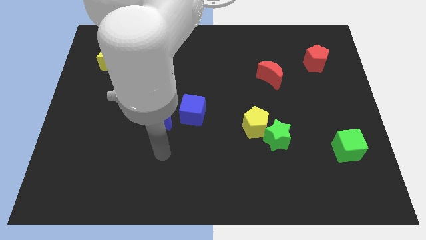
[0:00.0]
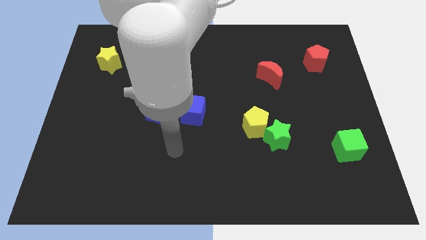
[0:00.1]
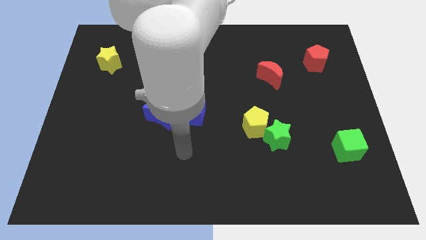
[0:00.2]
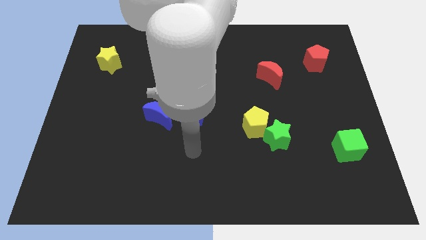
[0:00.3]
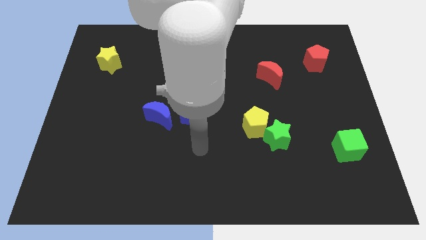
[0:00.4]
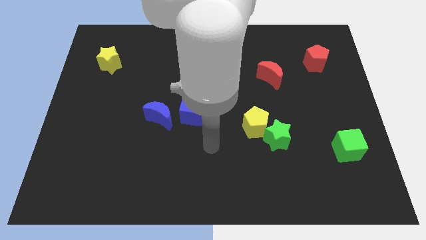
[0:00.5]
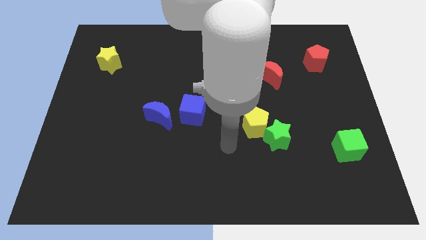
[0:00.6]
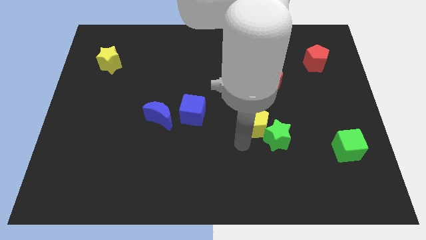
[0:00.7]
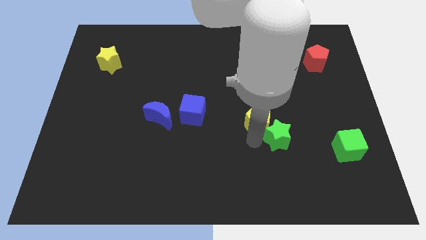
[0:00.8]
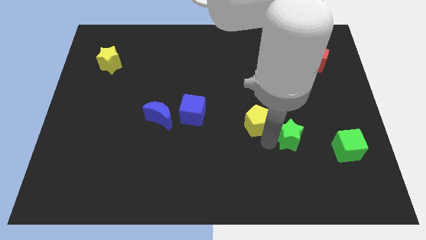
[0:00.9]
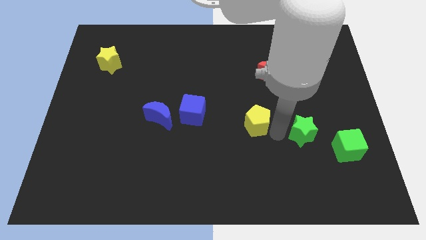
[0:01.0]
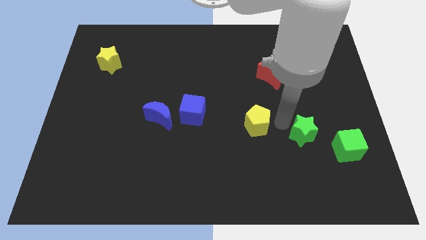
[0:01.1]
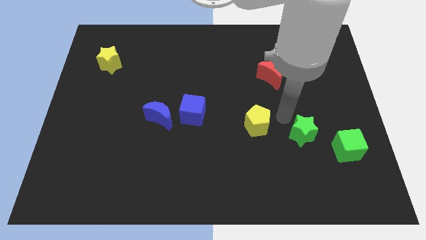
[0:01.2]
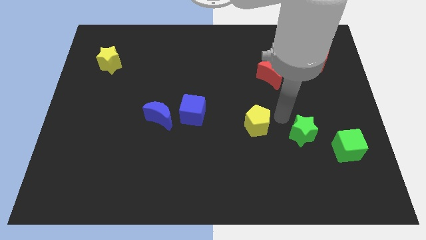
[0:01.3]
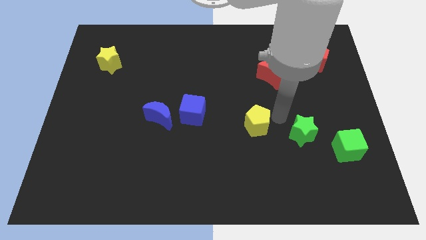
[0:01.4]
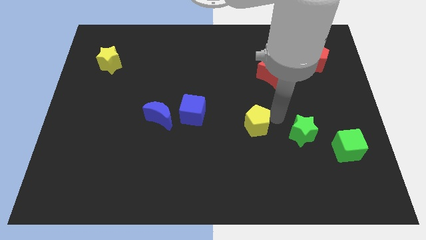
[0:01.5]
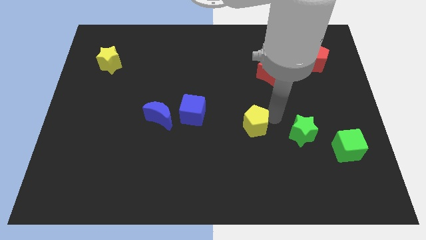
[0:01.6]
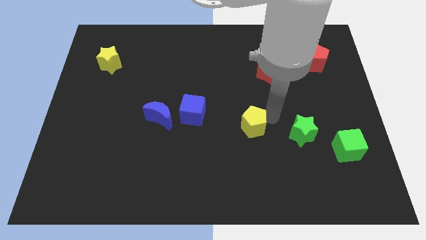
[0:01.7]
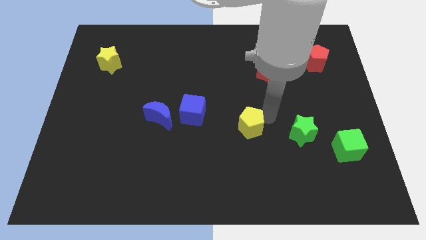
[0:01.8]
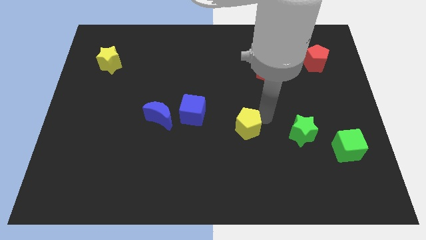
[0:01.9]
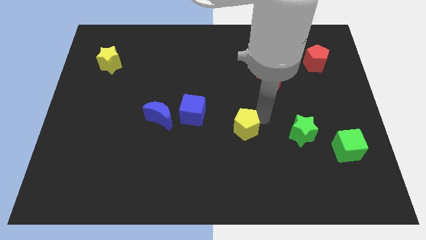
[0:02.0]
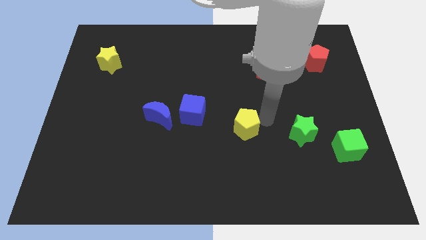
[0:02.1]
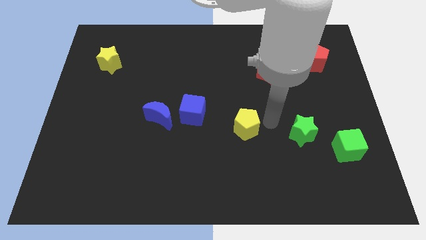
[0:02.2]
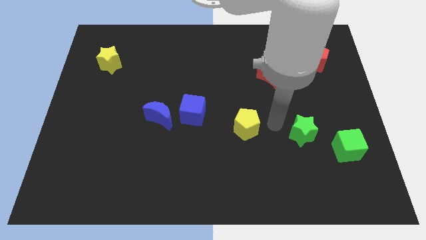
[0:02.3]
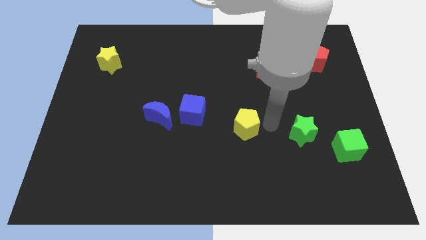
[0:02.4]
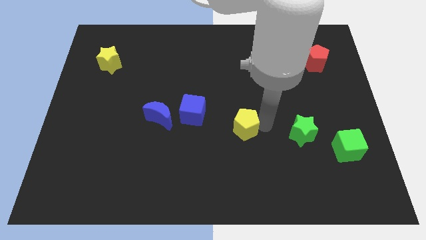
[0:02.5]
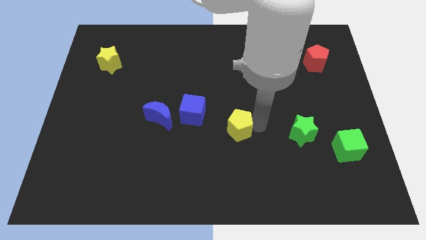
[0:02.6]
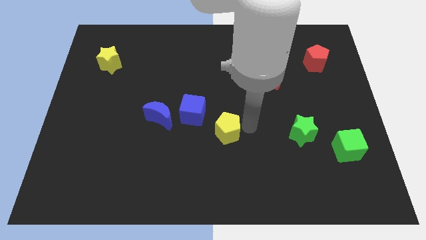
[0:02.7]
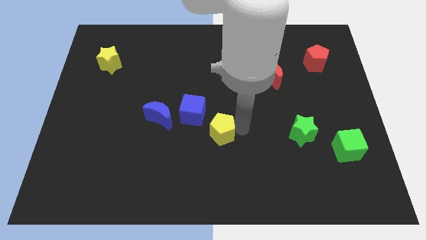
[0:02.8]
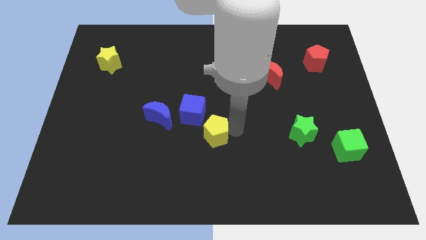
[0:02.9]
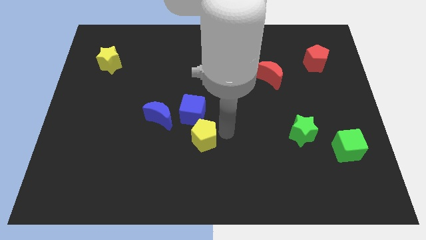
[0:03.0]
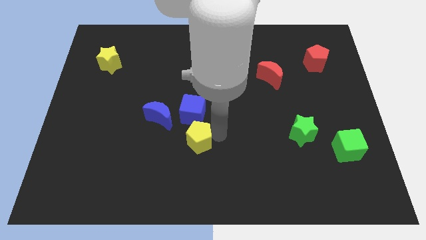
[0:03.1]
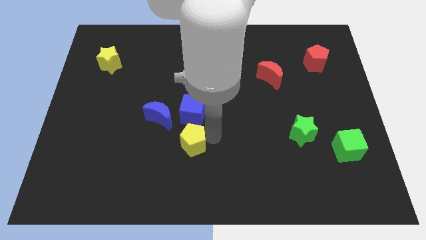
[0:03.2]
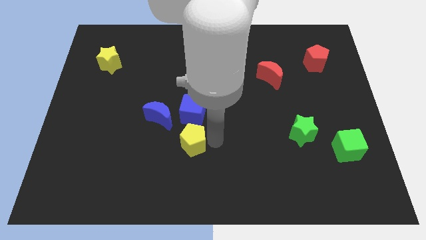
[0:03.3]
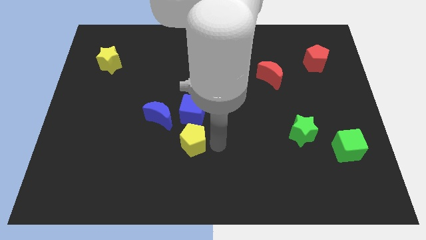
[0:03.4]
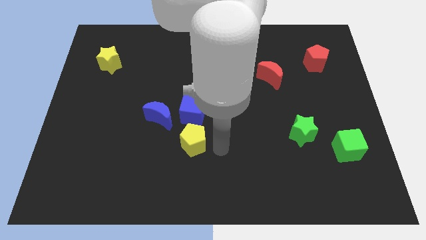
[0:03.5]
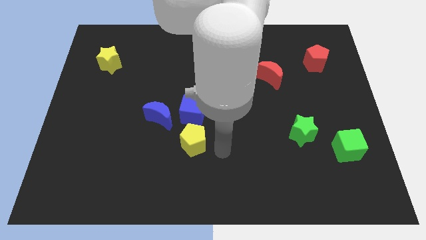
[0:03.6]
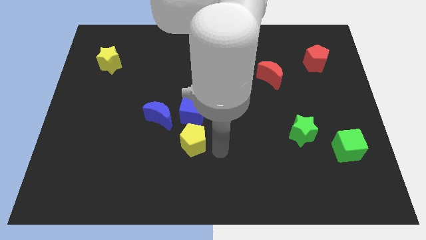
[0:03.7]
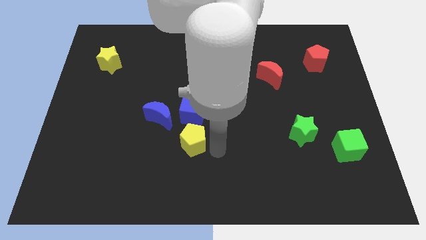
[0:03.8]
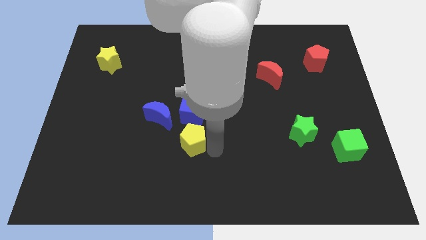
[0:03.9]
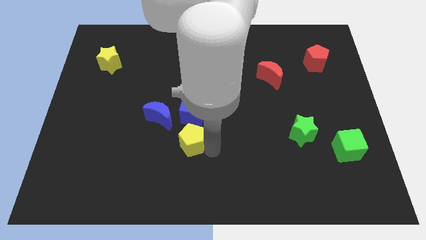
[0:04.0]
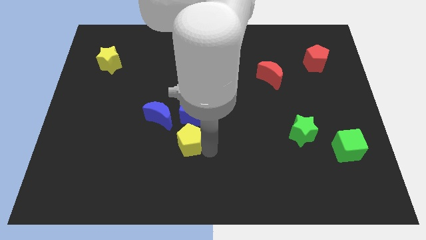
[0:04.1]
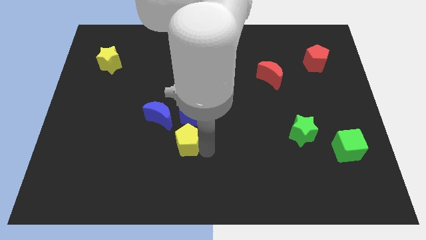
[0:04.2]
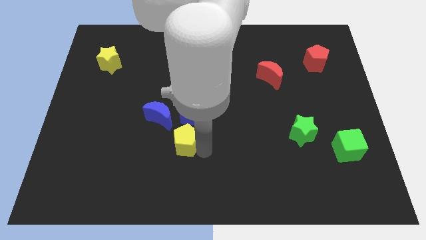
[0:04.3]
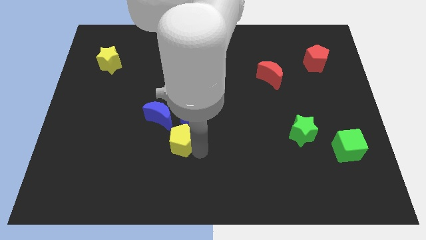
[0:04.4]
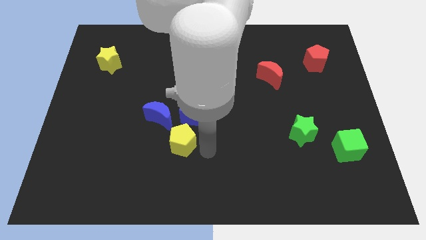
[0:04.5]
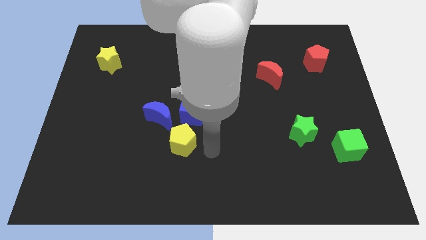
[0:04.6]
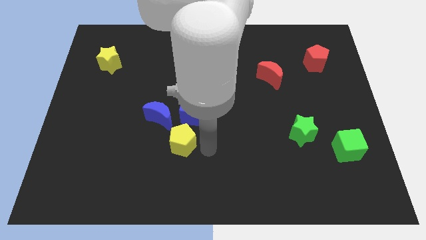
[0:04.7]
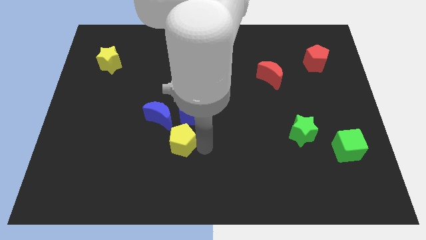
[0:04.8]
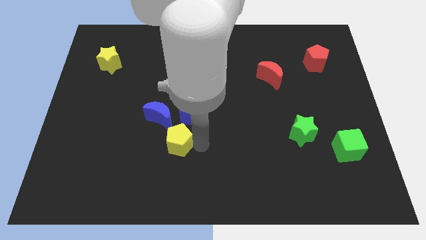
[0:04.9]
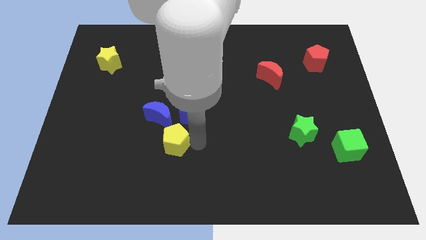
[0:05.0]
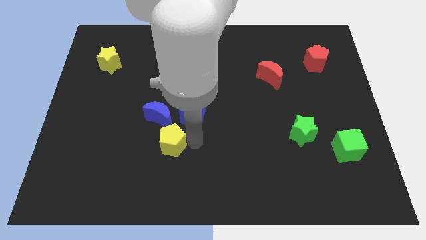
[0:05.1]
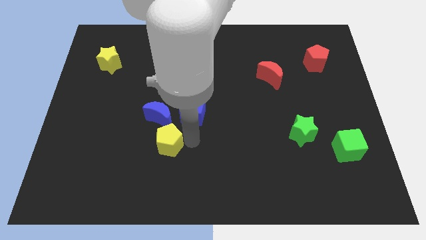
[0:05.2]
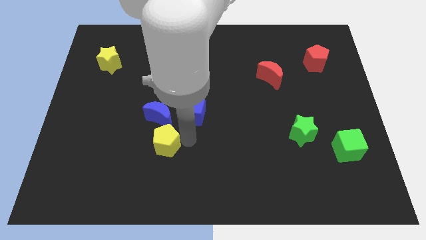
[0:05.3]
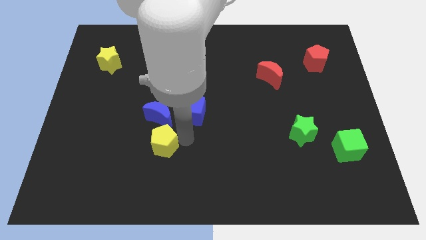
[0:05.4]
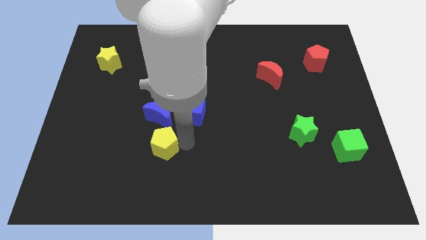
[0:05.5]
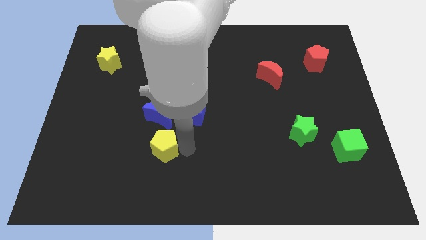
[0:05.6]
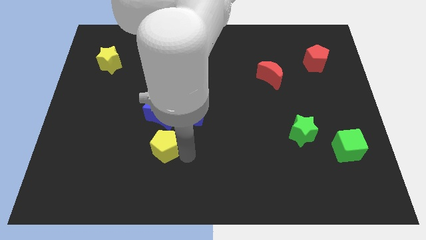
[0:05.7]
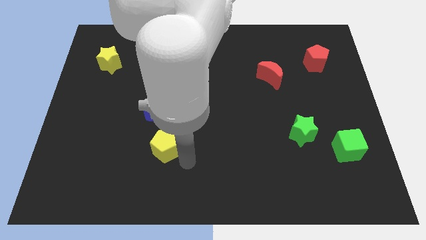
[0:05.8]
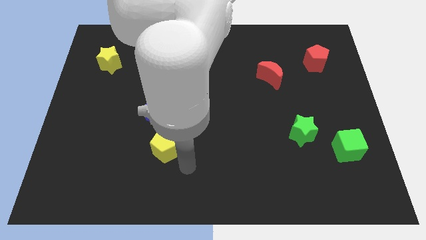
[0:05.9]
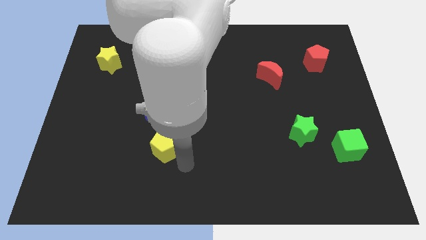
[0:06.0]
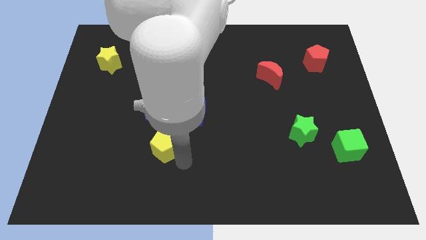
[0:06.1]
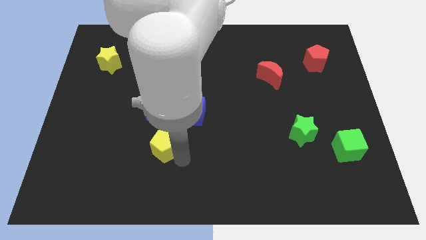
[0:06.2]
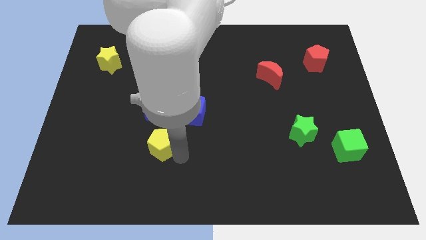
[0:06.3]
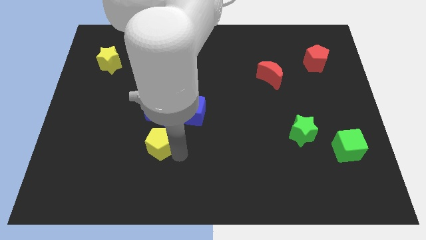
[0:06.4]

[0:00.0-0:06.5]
slide the yellow pentagon left

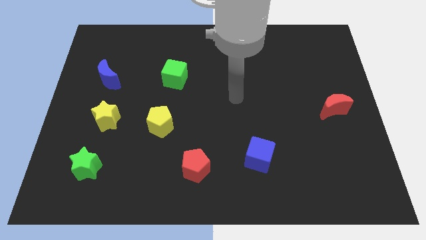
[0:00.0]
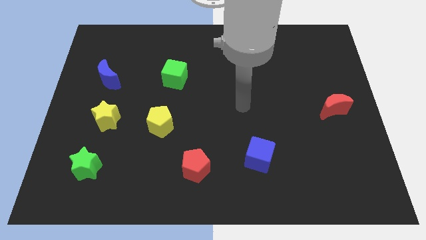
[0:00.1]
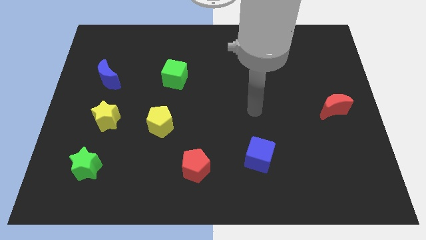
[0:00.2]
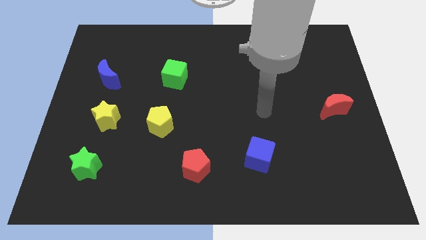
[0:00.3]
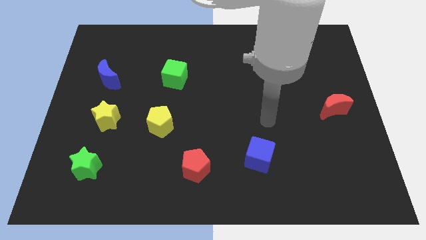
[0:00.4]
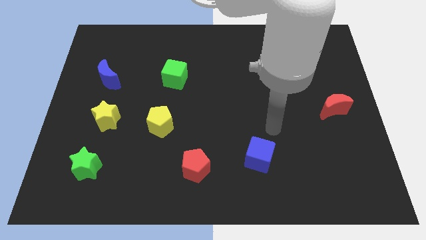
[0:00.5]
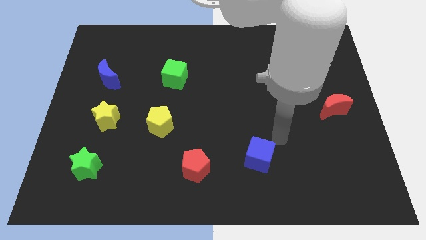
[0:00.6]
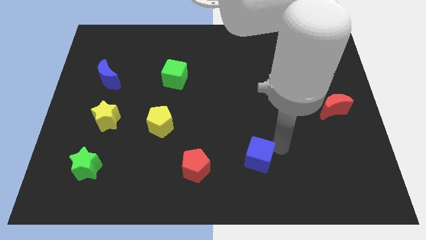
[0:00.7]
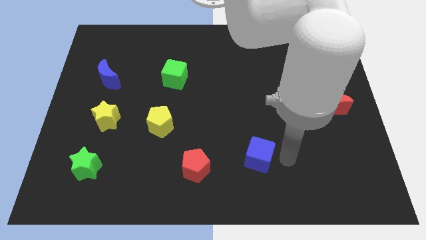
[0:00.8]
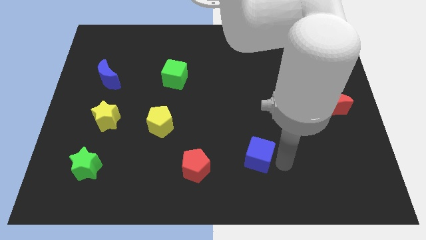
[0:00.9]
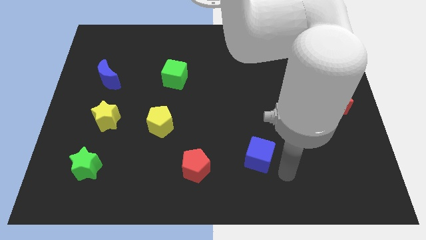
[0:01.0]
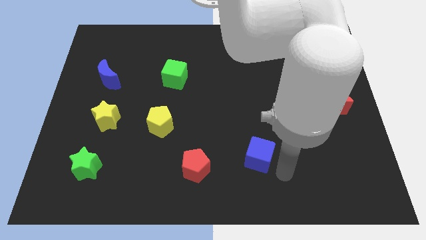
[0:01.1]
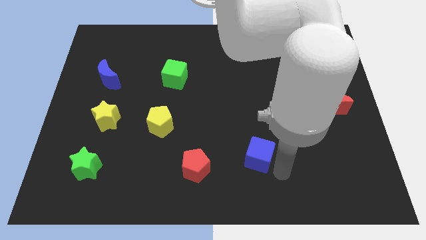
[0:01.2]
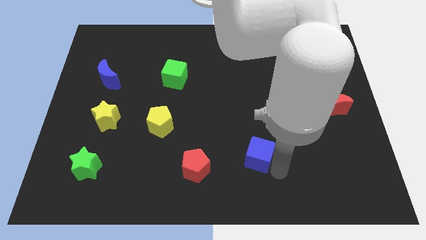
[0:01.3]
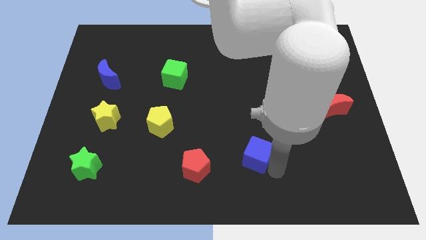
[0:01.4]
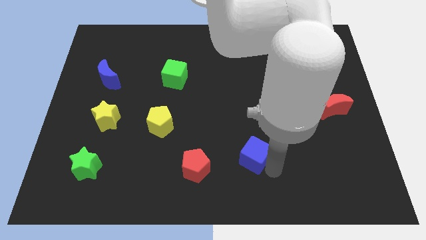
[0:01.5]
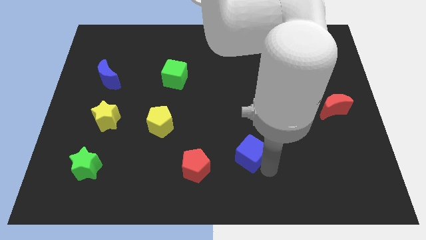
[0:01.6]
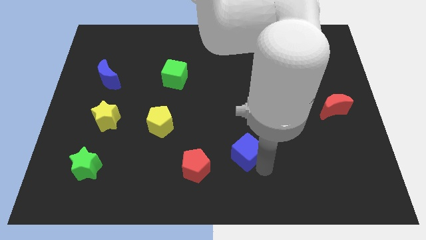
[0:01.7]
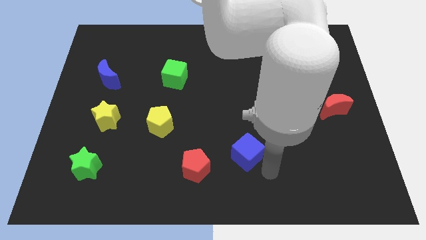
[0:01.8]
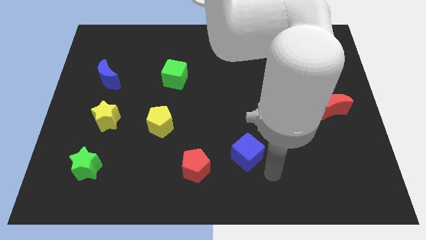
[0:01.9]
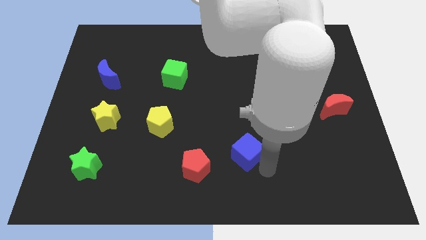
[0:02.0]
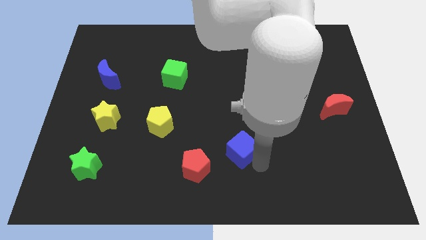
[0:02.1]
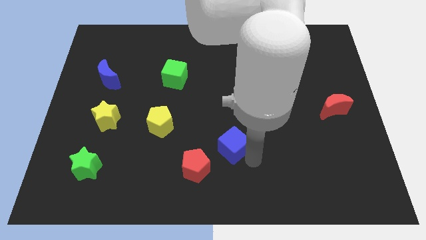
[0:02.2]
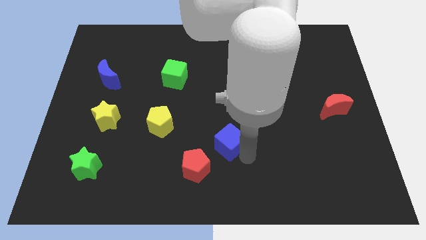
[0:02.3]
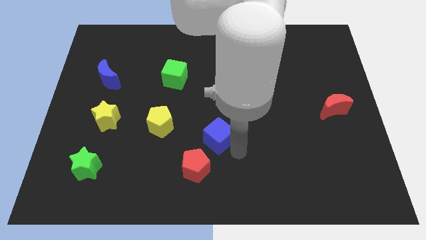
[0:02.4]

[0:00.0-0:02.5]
slightly slide the blue cube diagonally upwards and left
